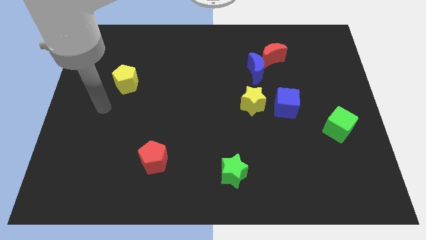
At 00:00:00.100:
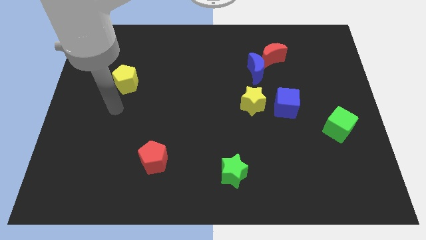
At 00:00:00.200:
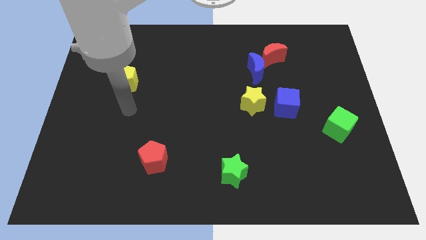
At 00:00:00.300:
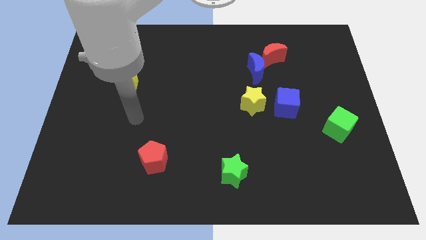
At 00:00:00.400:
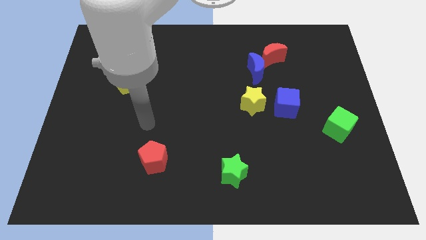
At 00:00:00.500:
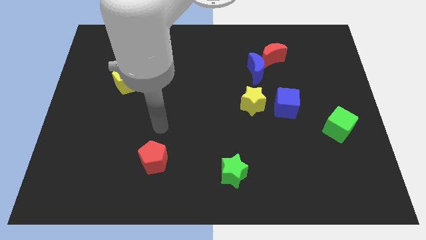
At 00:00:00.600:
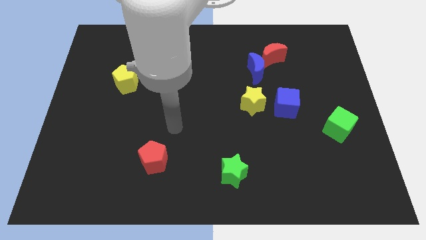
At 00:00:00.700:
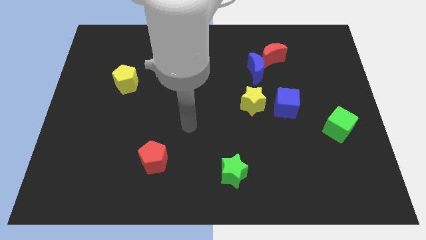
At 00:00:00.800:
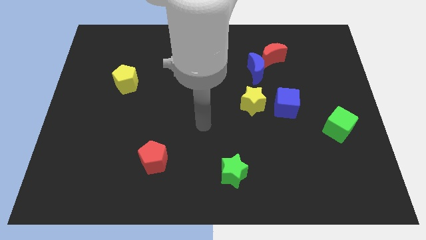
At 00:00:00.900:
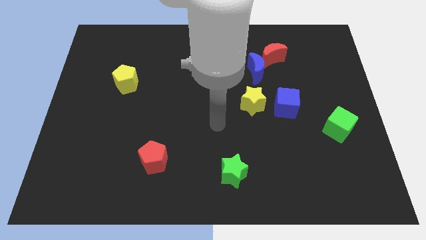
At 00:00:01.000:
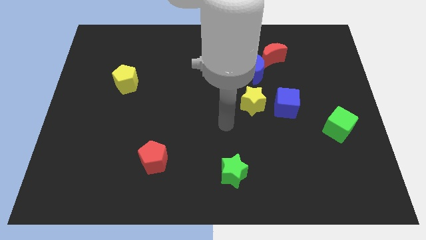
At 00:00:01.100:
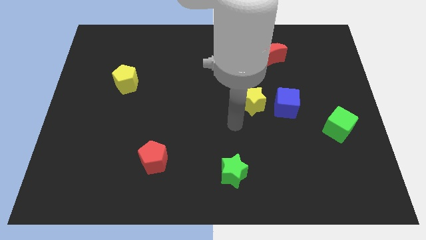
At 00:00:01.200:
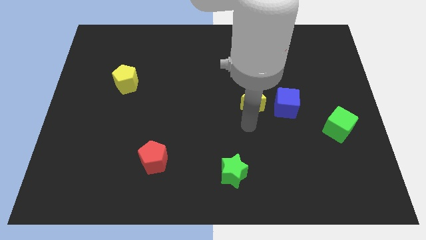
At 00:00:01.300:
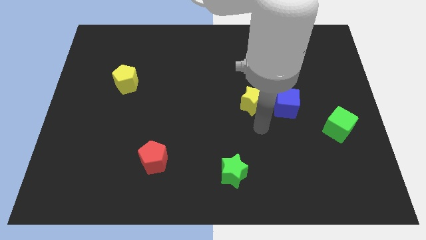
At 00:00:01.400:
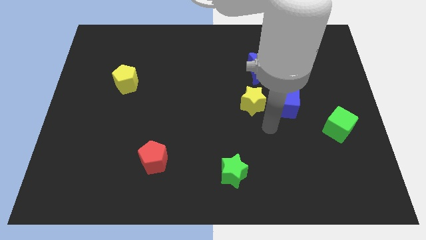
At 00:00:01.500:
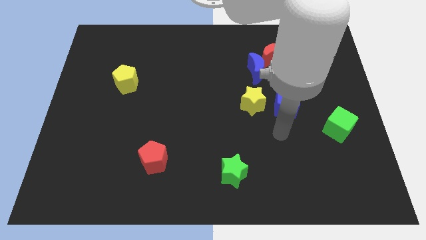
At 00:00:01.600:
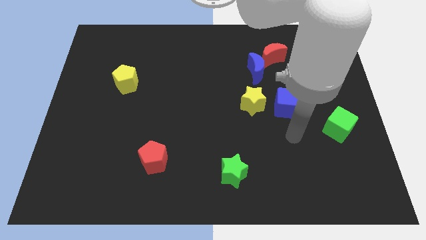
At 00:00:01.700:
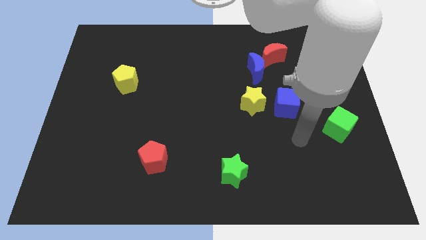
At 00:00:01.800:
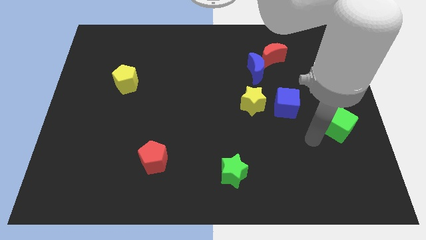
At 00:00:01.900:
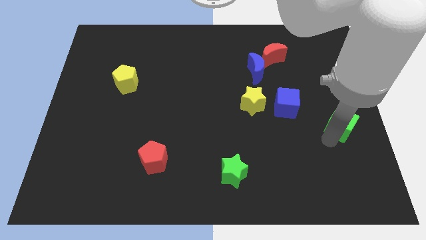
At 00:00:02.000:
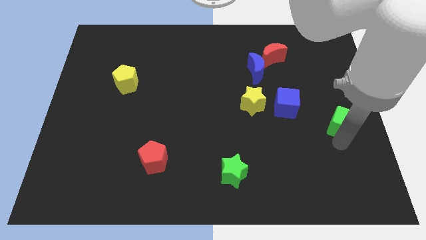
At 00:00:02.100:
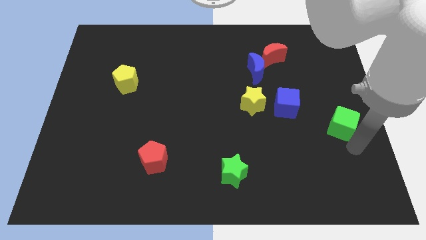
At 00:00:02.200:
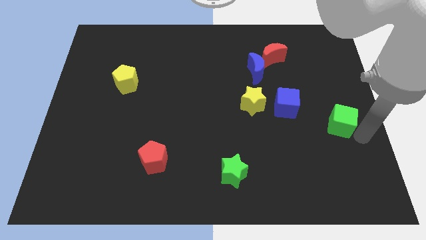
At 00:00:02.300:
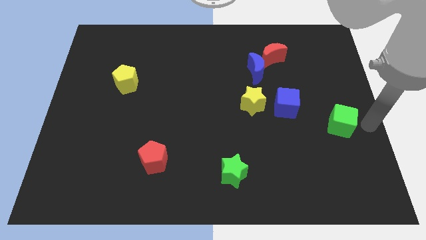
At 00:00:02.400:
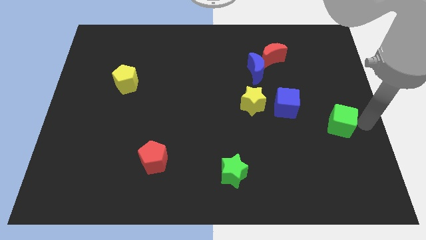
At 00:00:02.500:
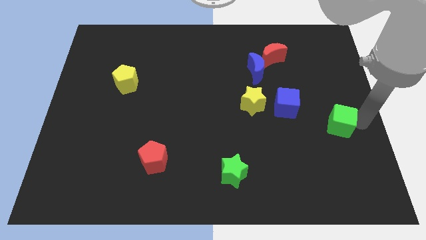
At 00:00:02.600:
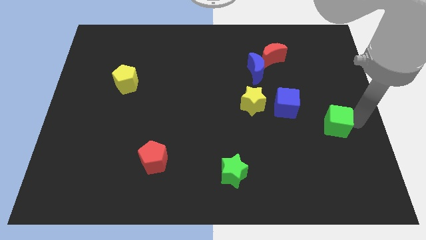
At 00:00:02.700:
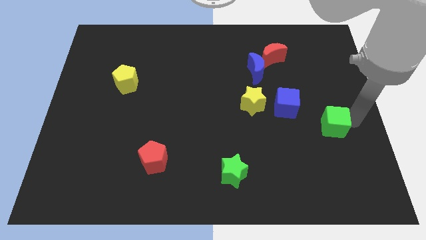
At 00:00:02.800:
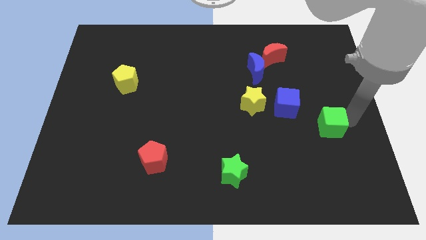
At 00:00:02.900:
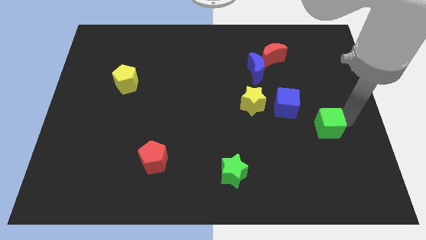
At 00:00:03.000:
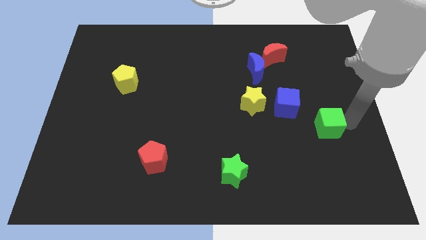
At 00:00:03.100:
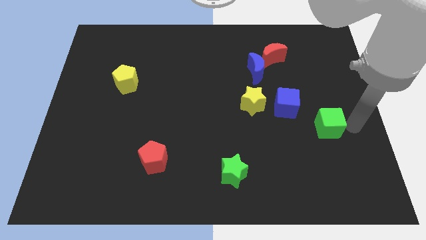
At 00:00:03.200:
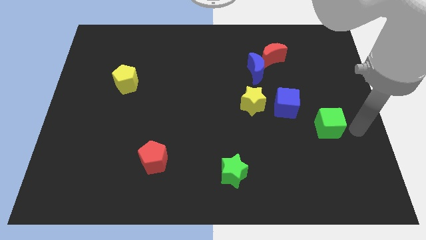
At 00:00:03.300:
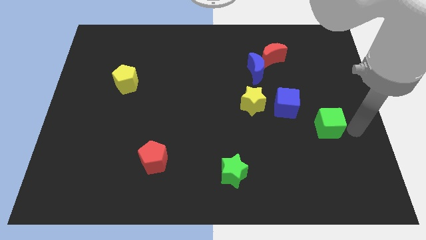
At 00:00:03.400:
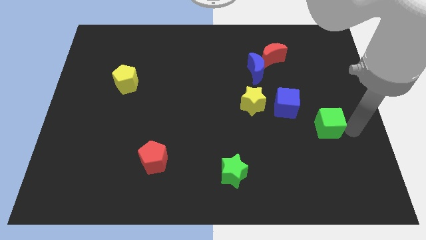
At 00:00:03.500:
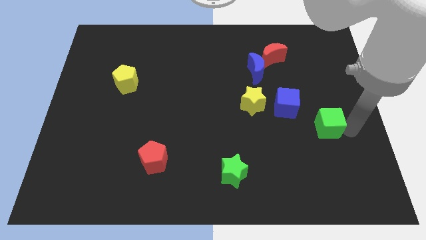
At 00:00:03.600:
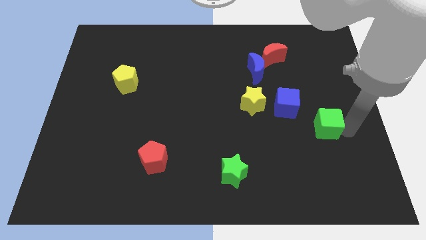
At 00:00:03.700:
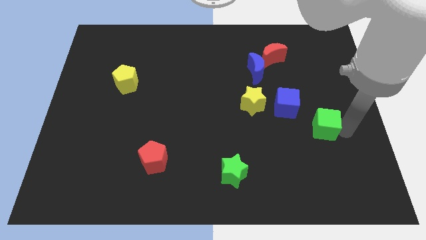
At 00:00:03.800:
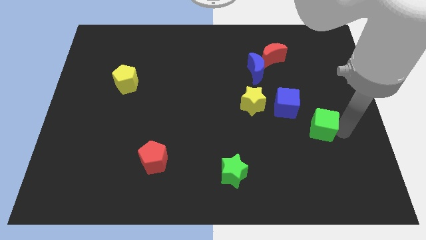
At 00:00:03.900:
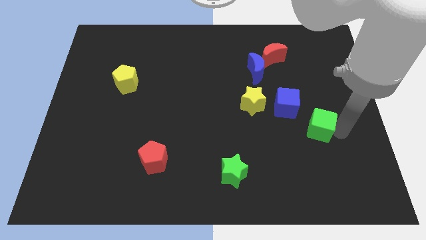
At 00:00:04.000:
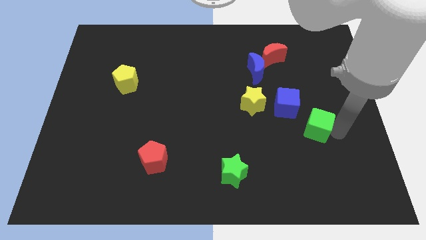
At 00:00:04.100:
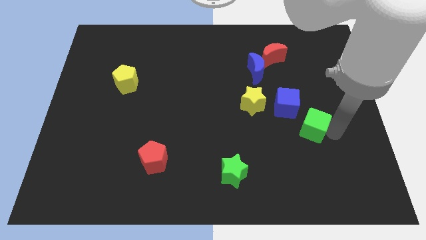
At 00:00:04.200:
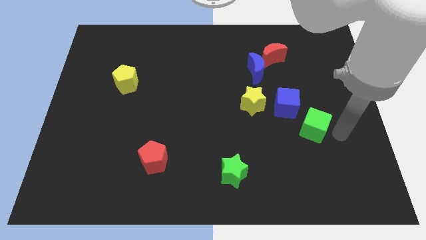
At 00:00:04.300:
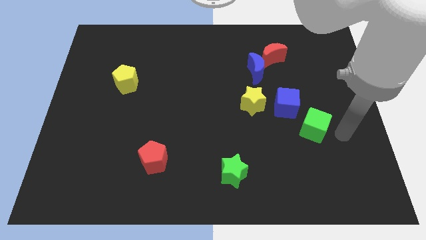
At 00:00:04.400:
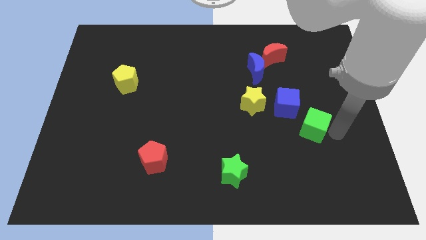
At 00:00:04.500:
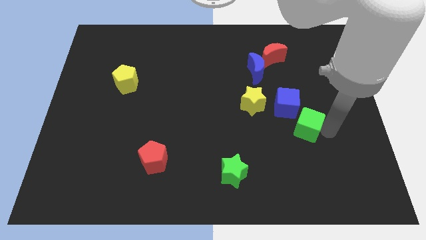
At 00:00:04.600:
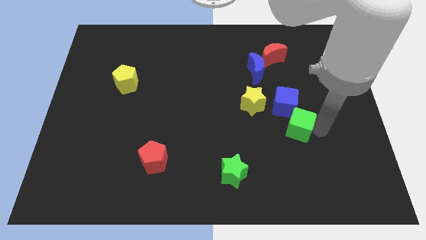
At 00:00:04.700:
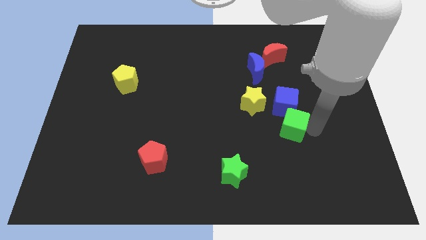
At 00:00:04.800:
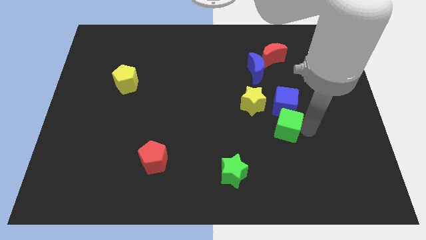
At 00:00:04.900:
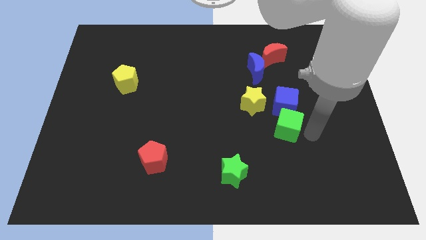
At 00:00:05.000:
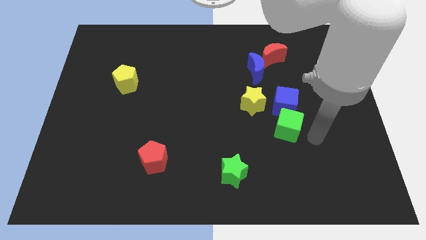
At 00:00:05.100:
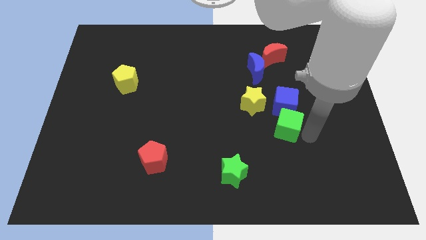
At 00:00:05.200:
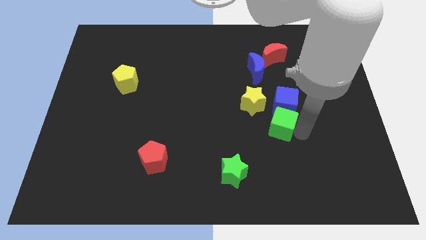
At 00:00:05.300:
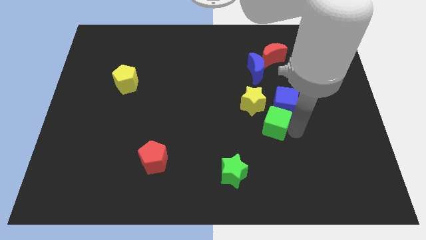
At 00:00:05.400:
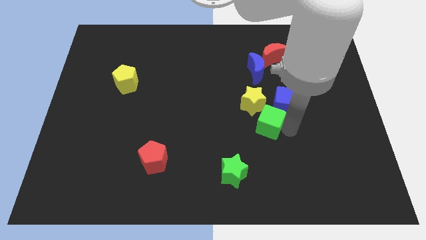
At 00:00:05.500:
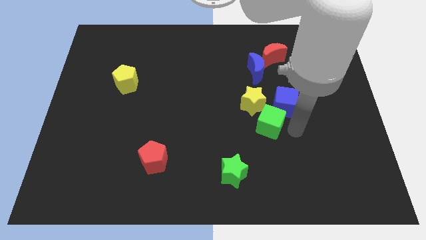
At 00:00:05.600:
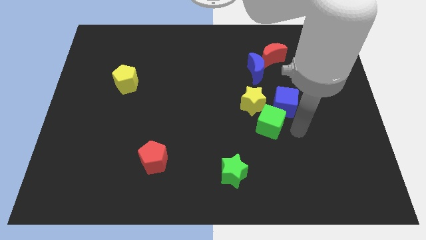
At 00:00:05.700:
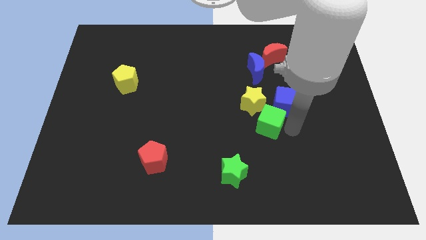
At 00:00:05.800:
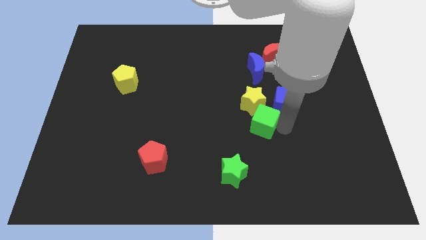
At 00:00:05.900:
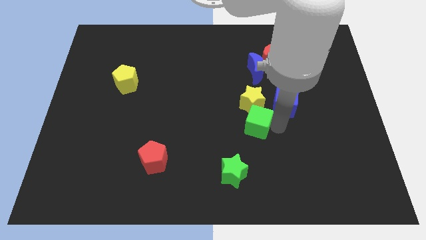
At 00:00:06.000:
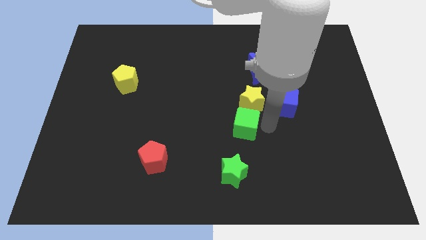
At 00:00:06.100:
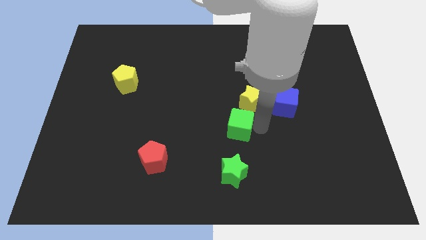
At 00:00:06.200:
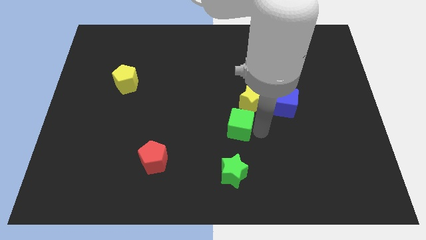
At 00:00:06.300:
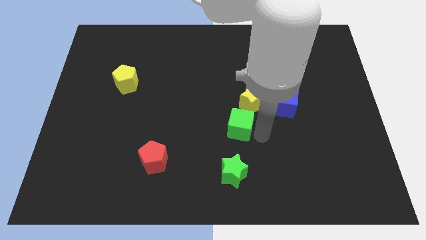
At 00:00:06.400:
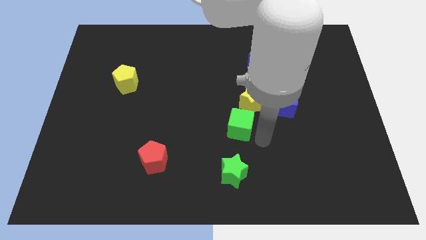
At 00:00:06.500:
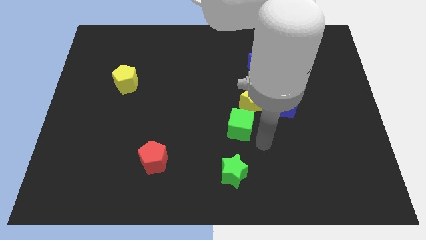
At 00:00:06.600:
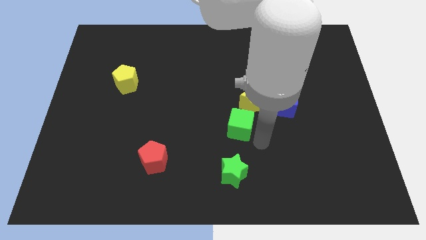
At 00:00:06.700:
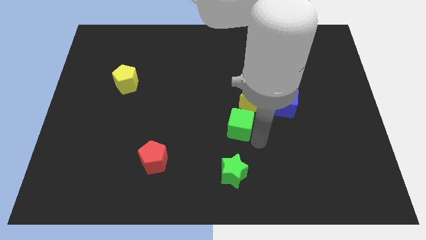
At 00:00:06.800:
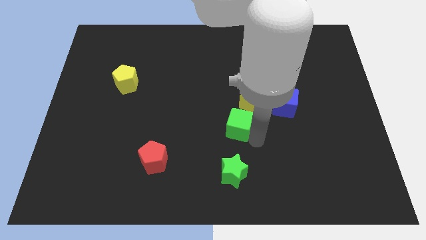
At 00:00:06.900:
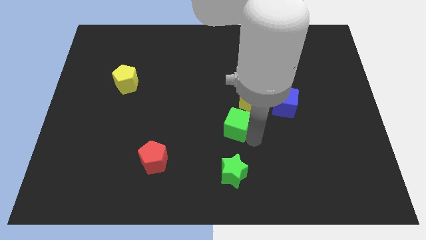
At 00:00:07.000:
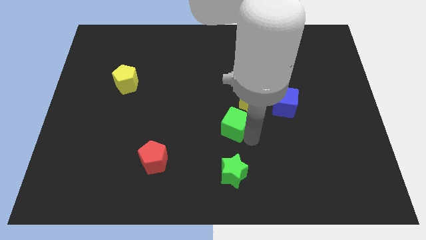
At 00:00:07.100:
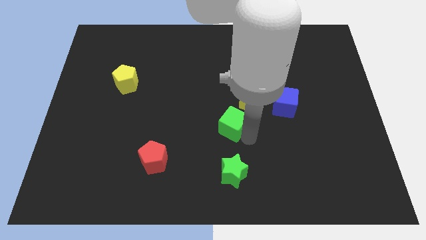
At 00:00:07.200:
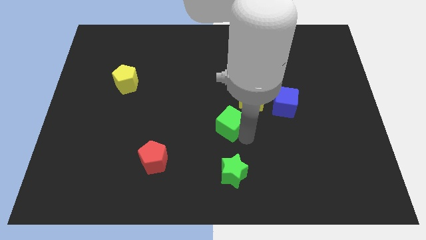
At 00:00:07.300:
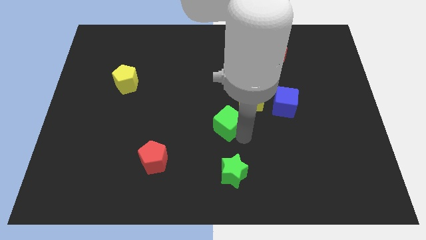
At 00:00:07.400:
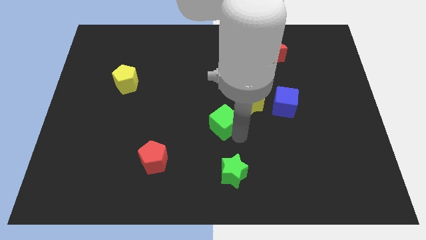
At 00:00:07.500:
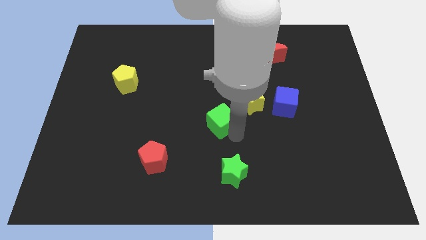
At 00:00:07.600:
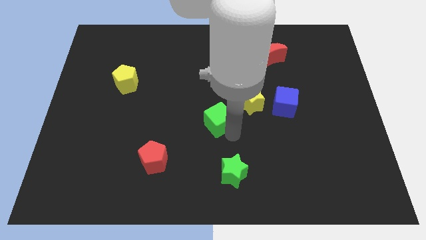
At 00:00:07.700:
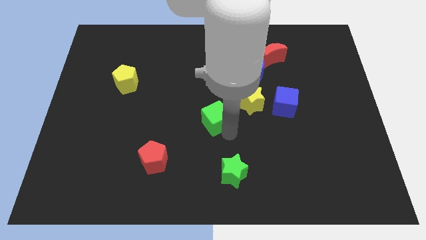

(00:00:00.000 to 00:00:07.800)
move the green cube left of the yellow star
